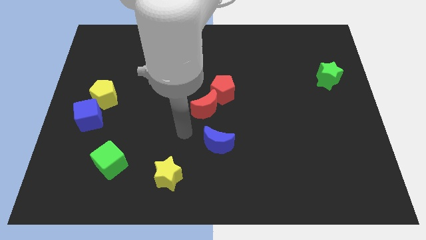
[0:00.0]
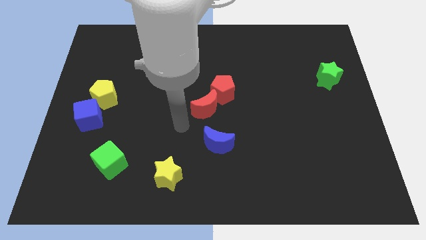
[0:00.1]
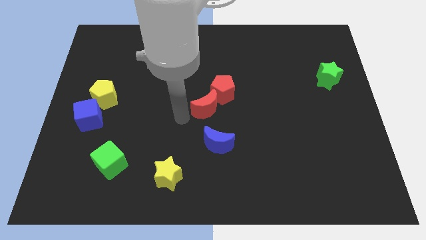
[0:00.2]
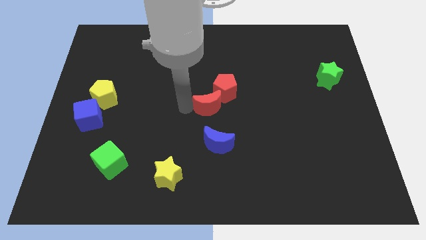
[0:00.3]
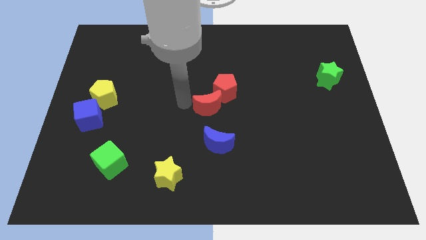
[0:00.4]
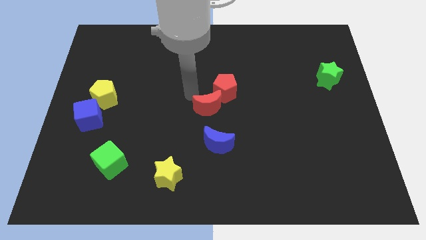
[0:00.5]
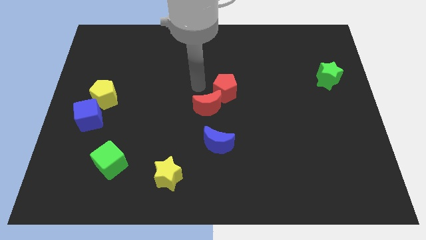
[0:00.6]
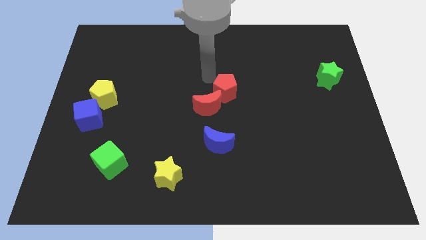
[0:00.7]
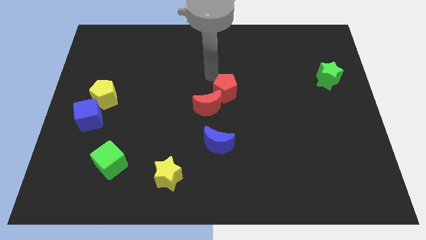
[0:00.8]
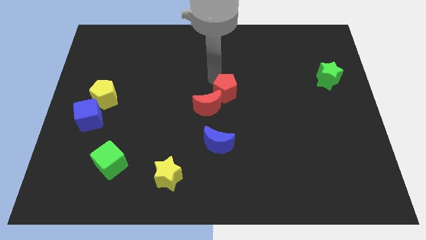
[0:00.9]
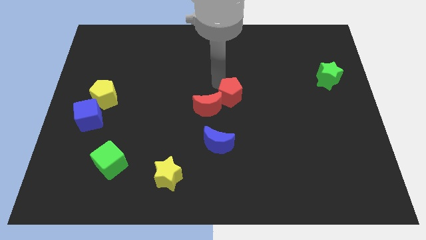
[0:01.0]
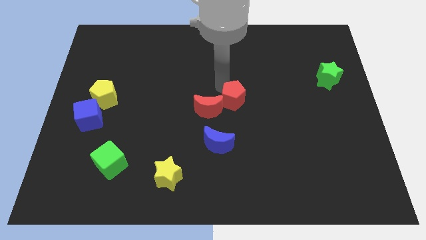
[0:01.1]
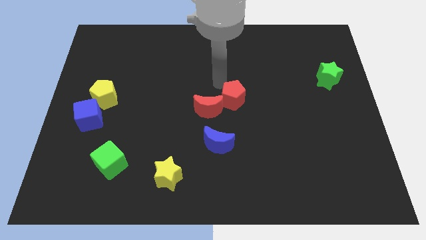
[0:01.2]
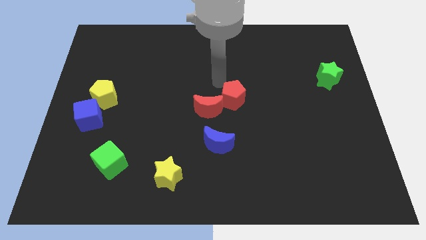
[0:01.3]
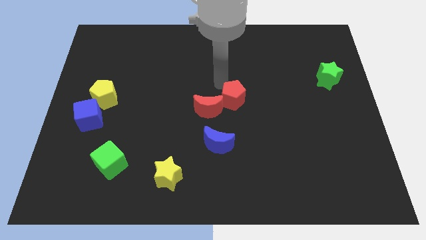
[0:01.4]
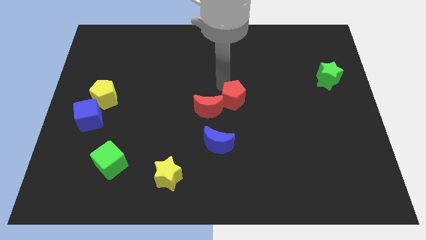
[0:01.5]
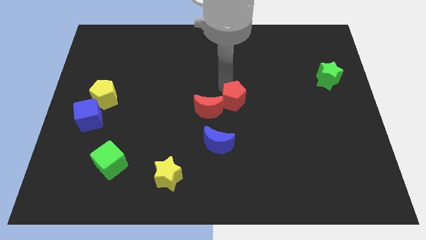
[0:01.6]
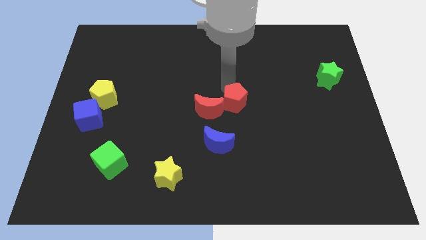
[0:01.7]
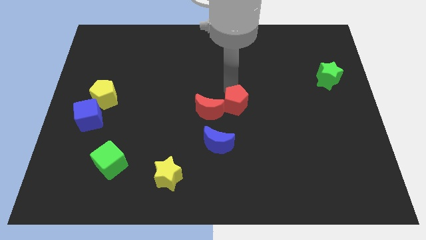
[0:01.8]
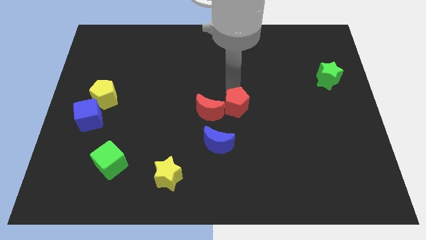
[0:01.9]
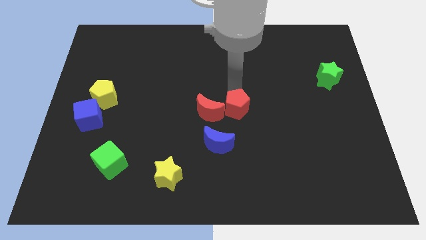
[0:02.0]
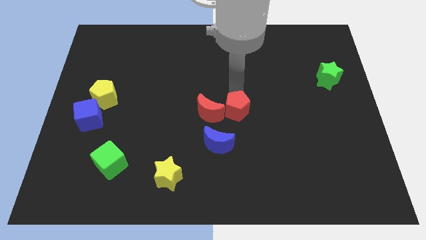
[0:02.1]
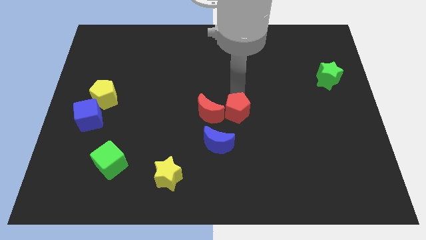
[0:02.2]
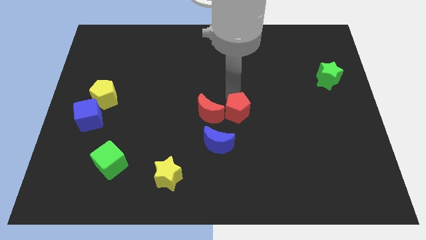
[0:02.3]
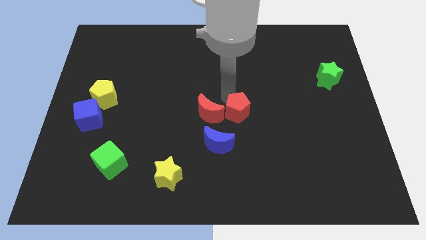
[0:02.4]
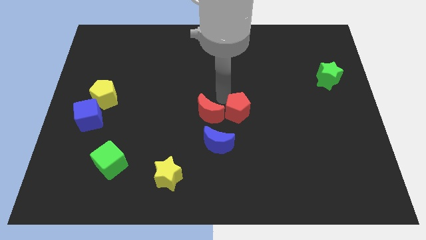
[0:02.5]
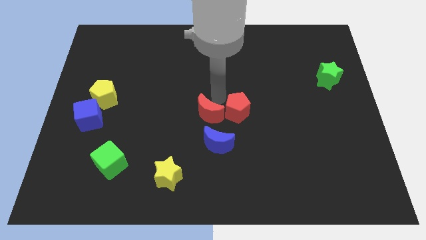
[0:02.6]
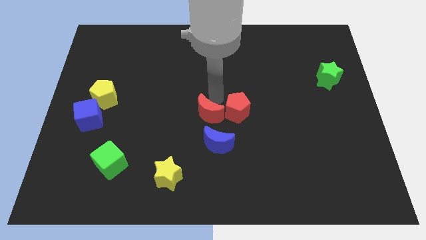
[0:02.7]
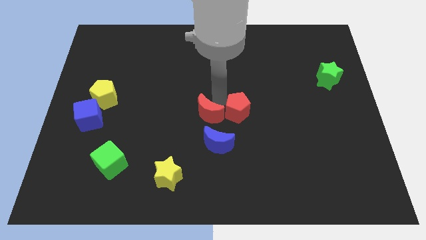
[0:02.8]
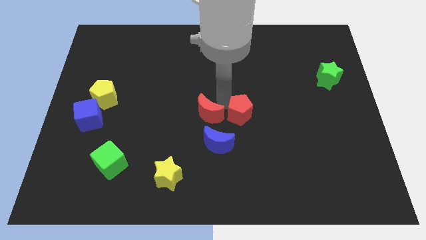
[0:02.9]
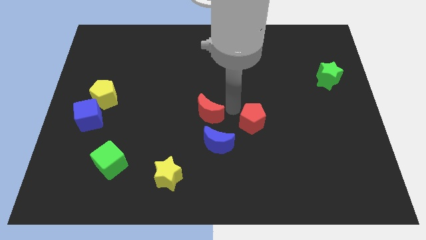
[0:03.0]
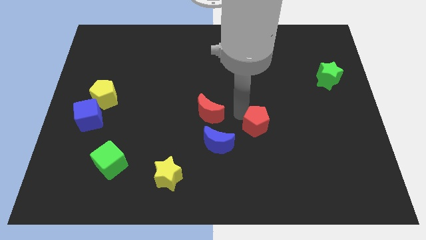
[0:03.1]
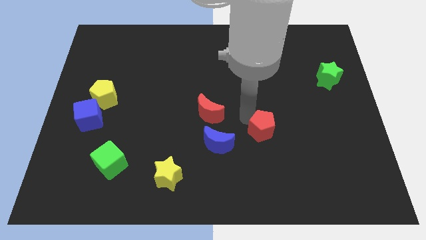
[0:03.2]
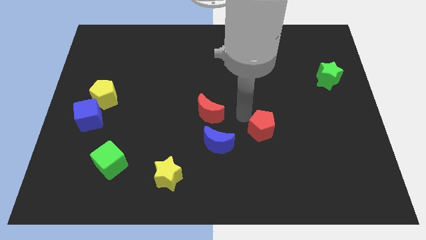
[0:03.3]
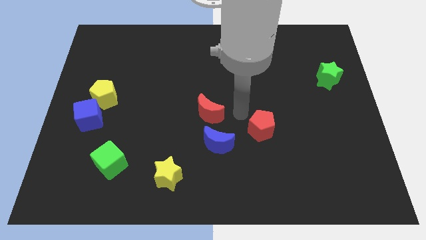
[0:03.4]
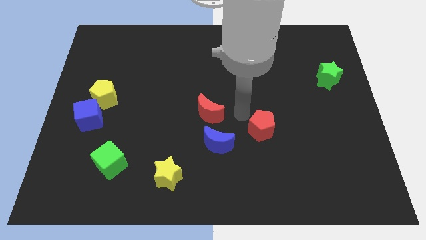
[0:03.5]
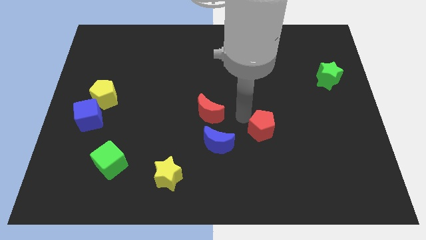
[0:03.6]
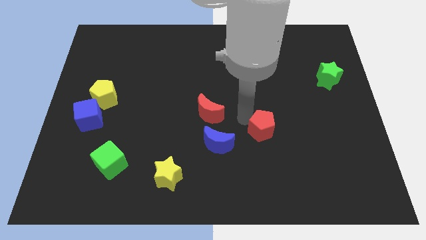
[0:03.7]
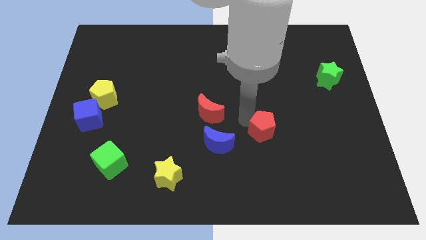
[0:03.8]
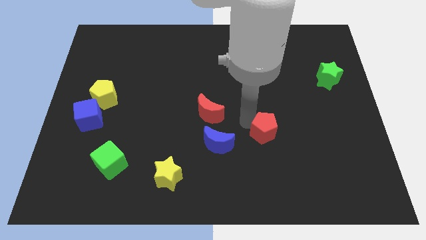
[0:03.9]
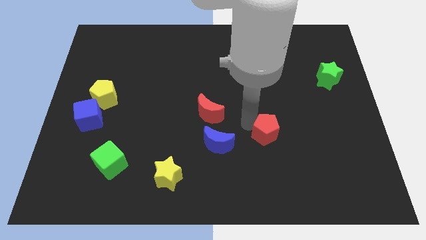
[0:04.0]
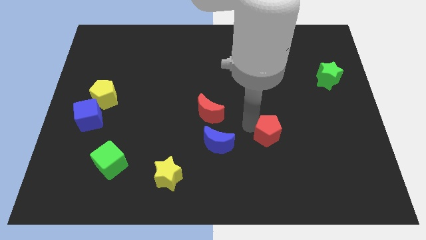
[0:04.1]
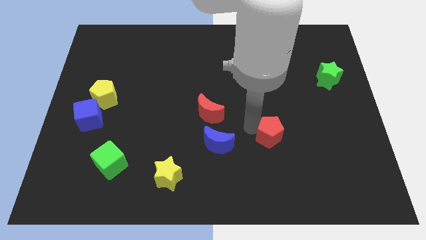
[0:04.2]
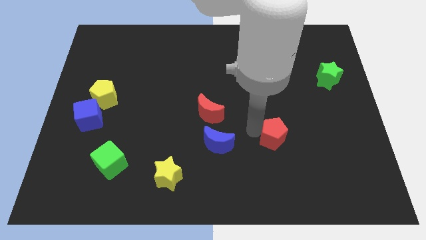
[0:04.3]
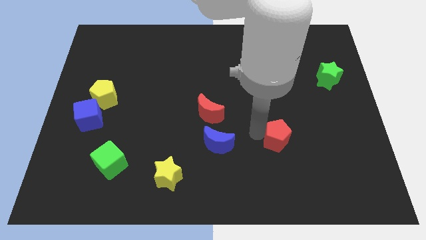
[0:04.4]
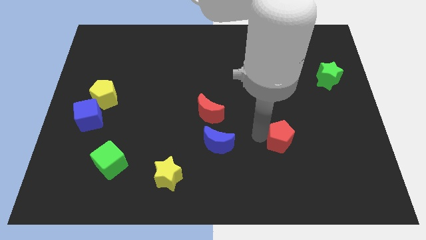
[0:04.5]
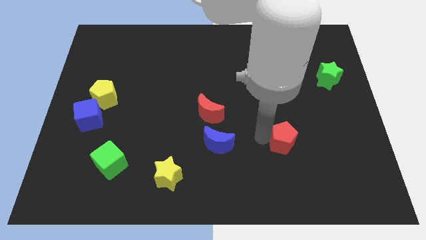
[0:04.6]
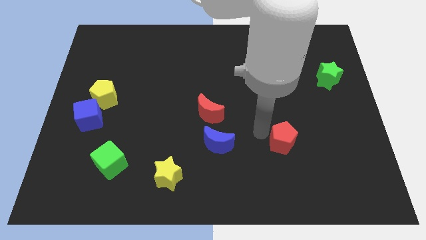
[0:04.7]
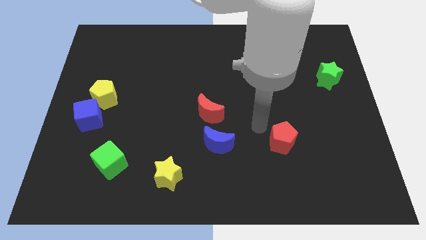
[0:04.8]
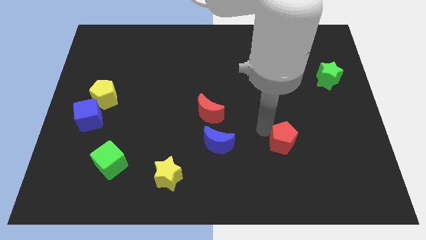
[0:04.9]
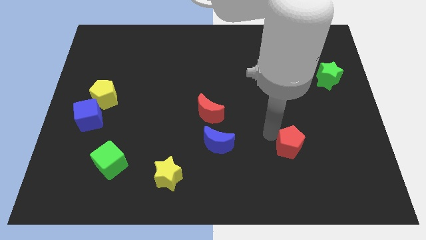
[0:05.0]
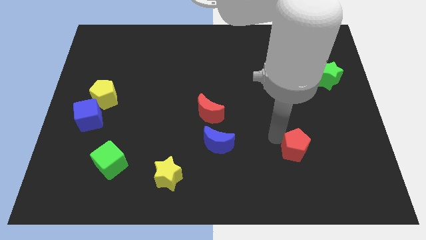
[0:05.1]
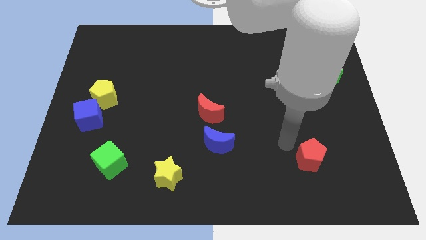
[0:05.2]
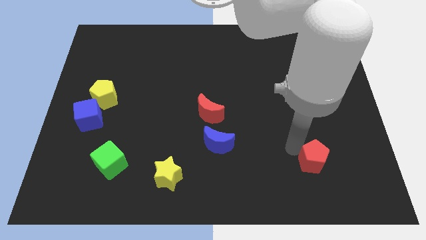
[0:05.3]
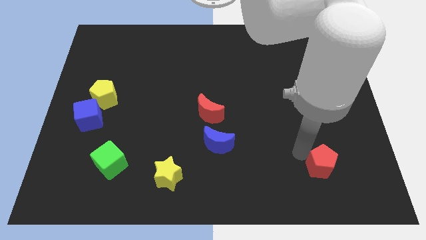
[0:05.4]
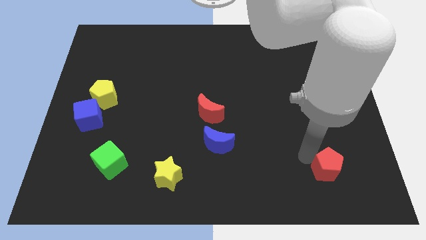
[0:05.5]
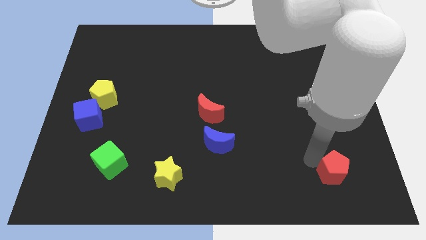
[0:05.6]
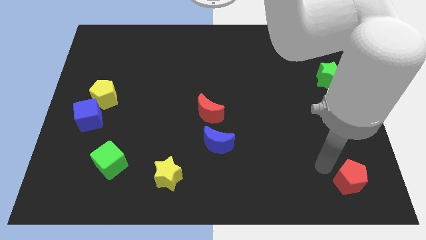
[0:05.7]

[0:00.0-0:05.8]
slide the red pentagon to the bottom right of the board
